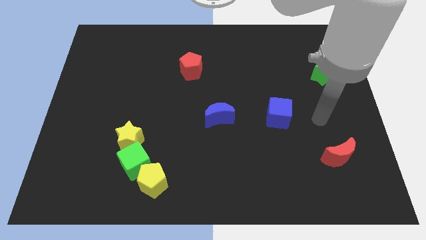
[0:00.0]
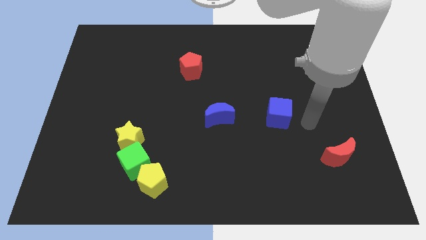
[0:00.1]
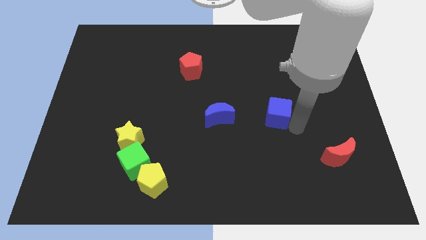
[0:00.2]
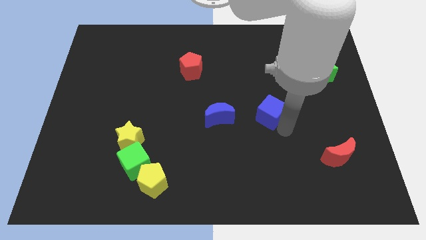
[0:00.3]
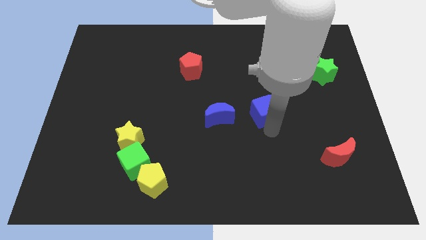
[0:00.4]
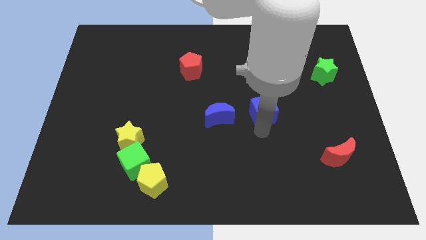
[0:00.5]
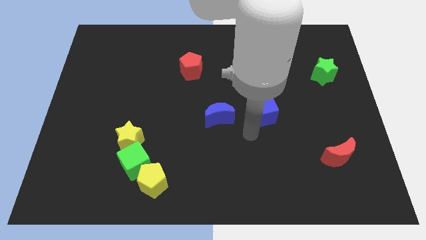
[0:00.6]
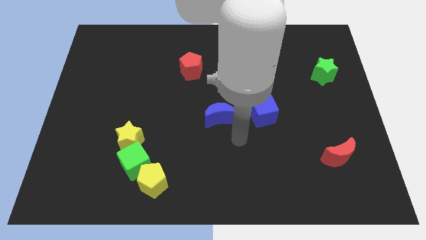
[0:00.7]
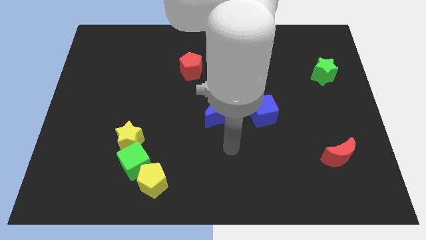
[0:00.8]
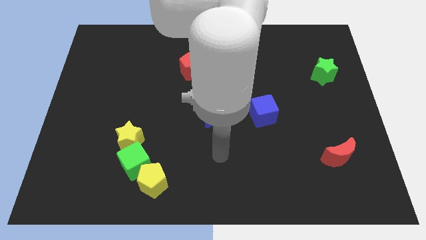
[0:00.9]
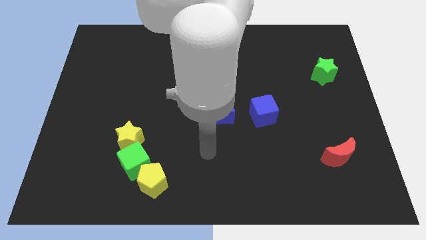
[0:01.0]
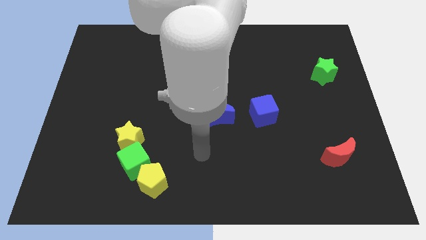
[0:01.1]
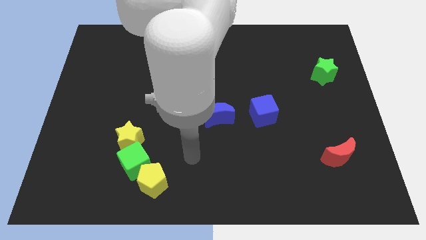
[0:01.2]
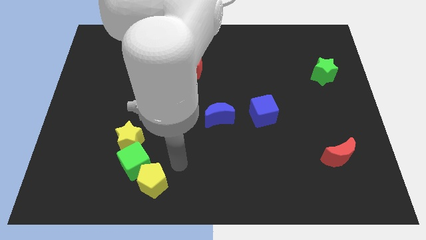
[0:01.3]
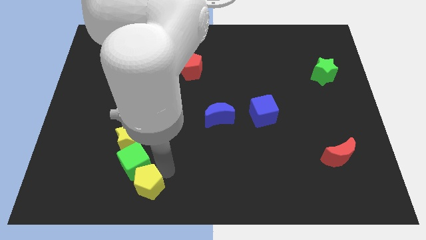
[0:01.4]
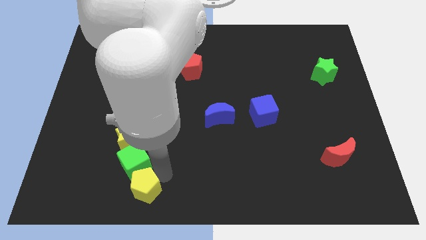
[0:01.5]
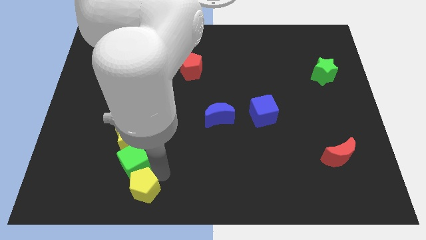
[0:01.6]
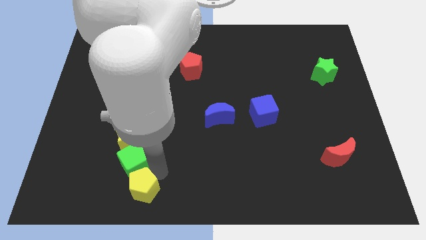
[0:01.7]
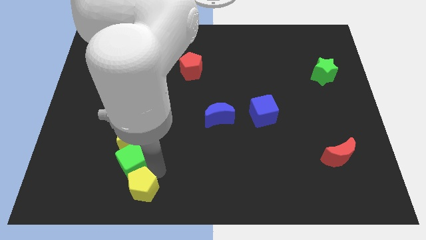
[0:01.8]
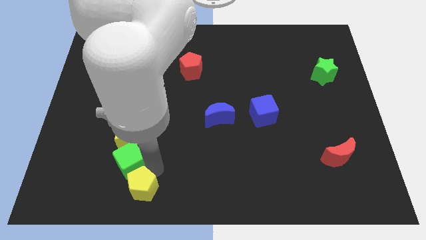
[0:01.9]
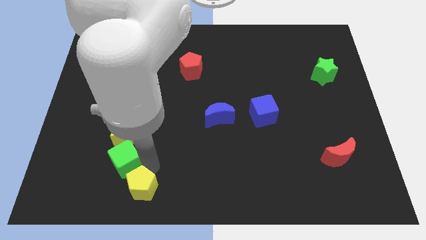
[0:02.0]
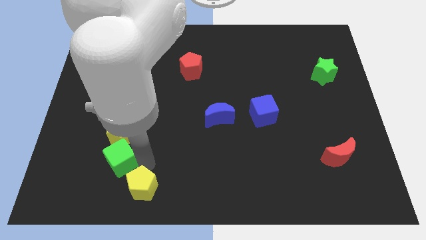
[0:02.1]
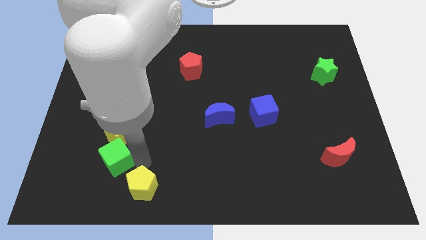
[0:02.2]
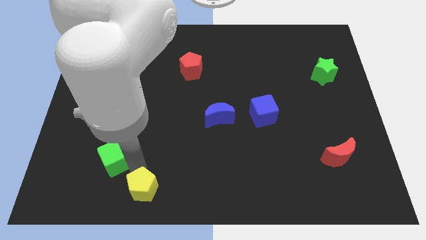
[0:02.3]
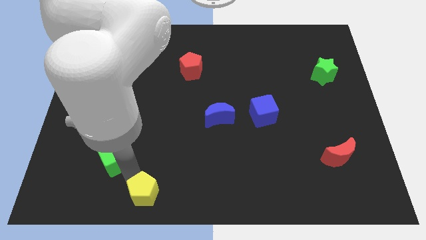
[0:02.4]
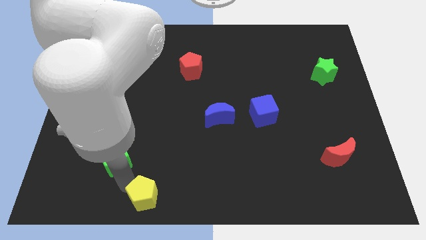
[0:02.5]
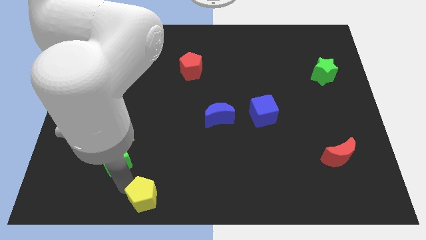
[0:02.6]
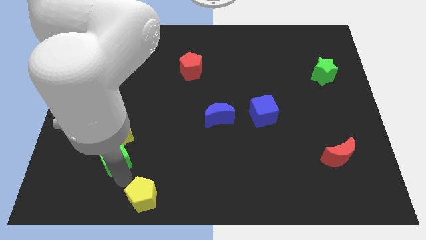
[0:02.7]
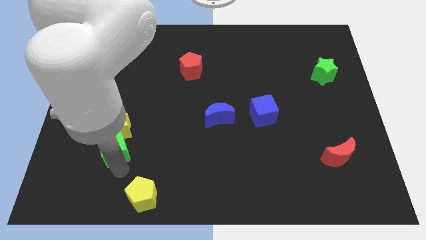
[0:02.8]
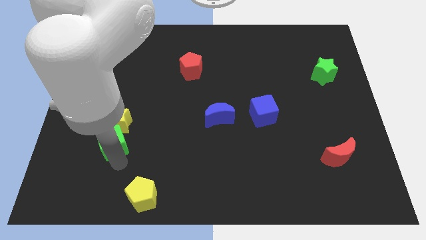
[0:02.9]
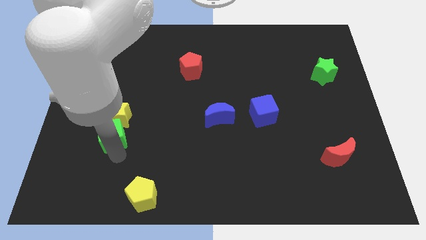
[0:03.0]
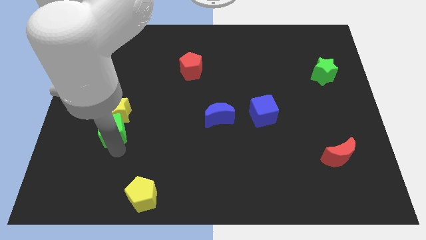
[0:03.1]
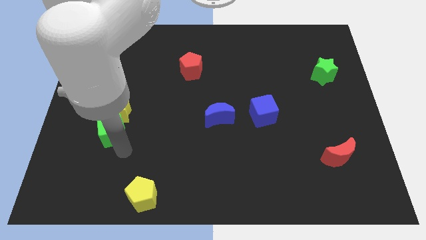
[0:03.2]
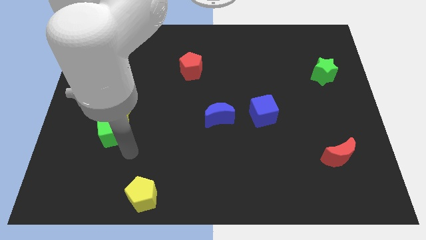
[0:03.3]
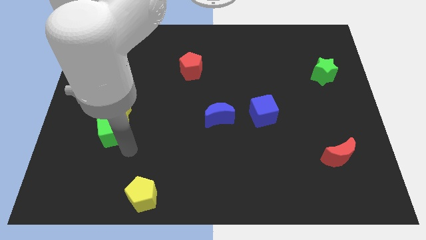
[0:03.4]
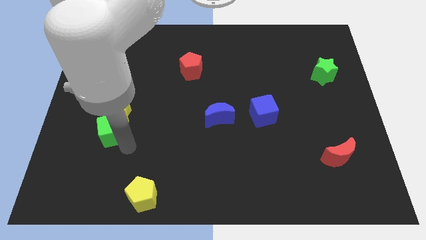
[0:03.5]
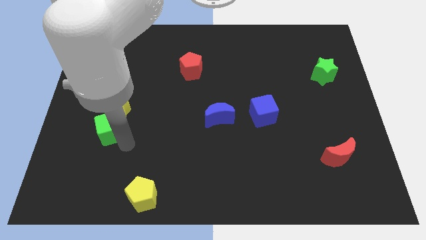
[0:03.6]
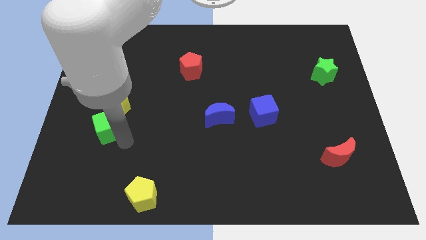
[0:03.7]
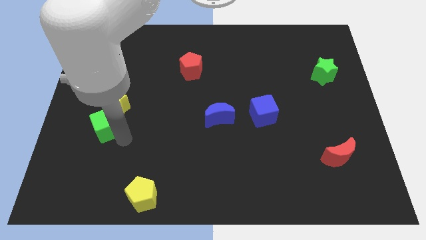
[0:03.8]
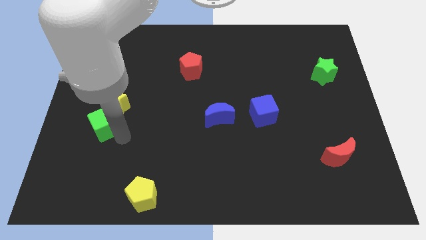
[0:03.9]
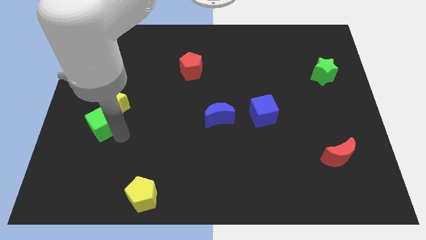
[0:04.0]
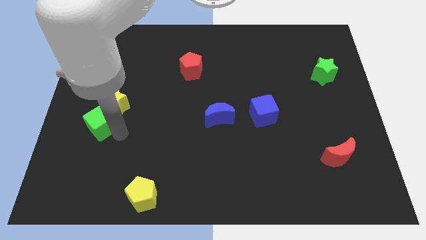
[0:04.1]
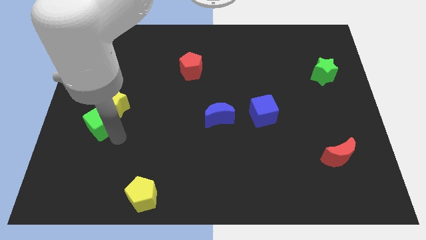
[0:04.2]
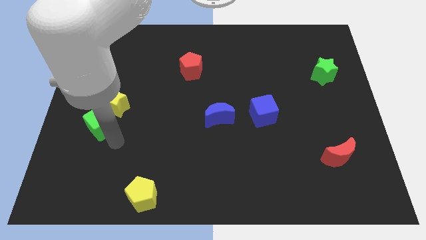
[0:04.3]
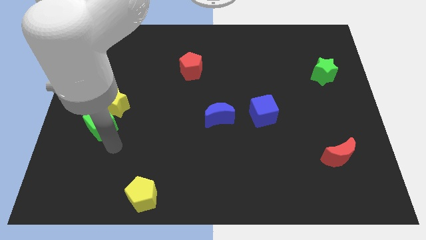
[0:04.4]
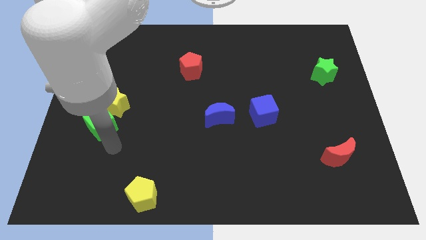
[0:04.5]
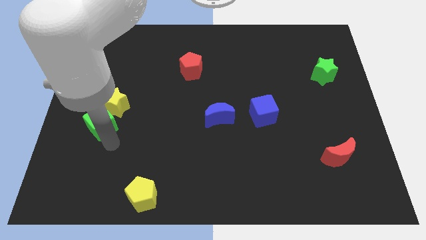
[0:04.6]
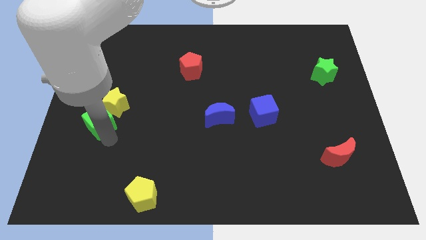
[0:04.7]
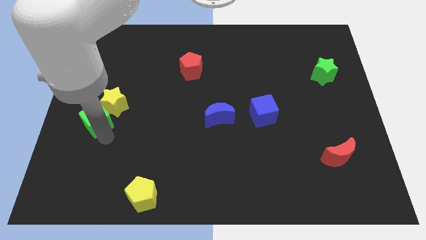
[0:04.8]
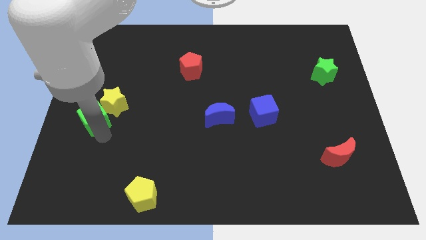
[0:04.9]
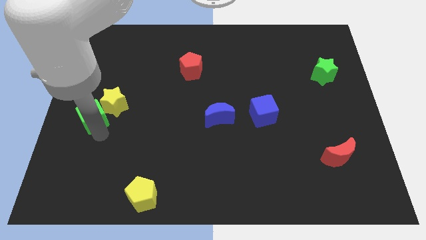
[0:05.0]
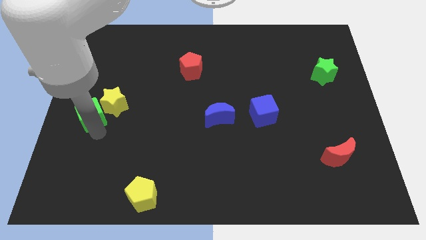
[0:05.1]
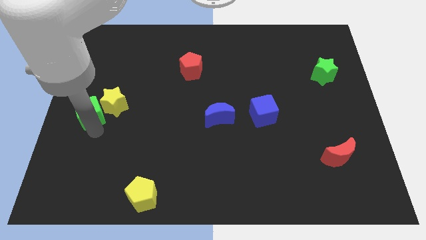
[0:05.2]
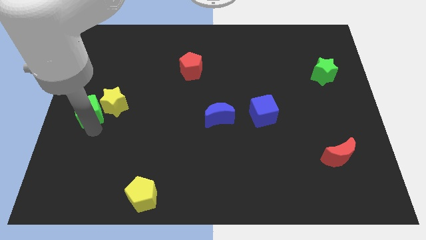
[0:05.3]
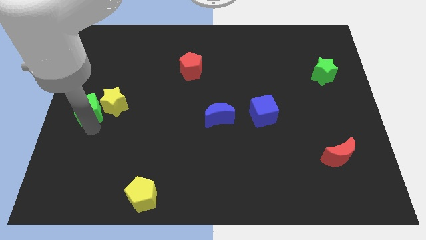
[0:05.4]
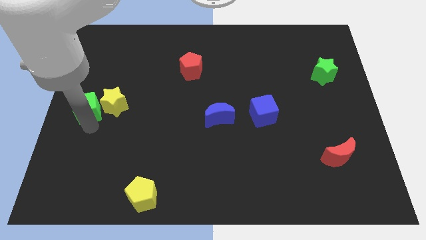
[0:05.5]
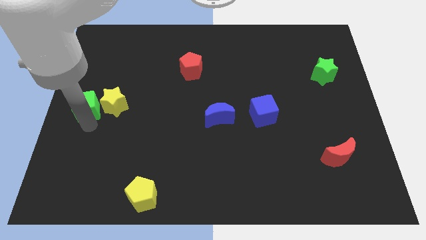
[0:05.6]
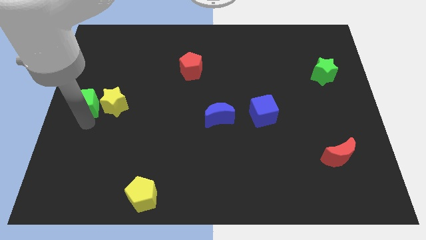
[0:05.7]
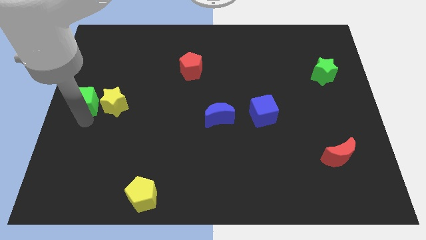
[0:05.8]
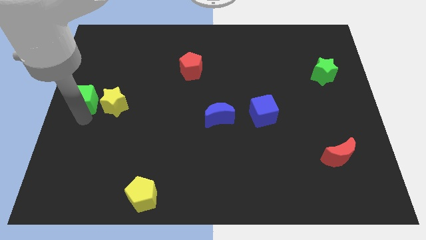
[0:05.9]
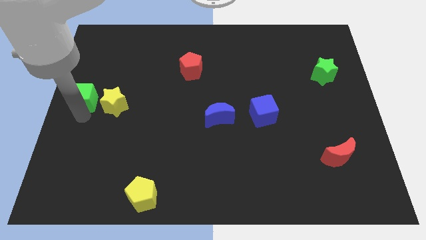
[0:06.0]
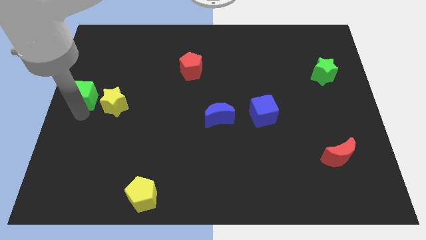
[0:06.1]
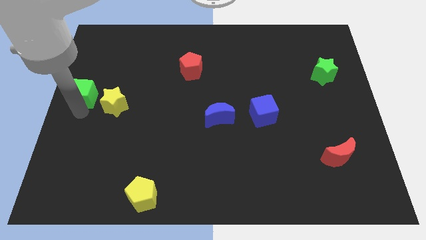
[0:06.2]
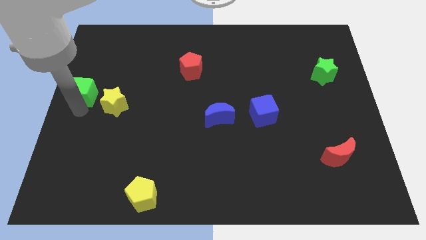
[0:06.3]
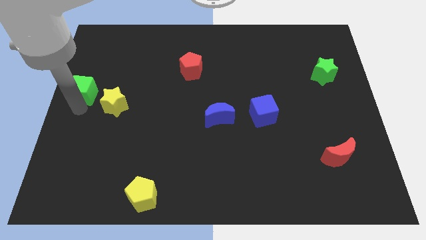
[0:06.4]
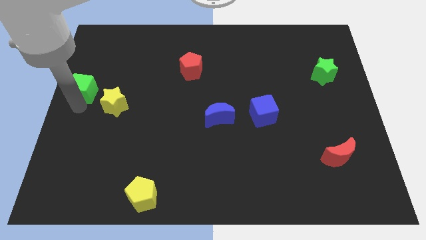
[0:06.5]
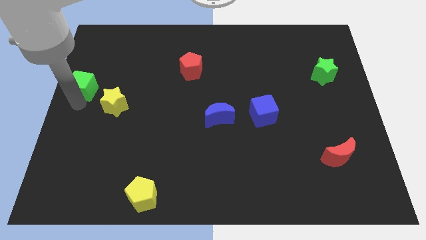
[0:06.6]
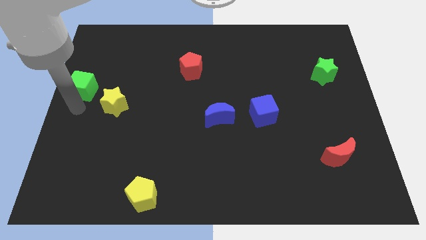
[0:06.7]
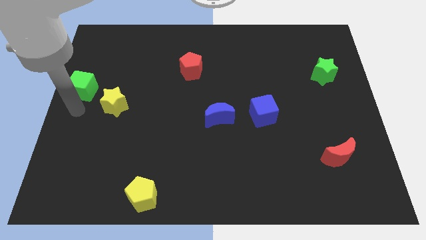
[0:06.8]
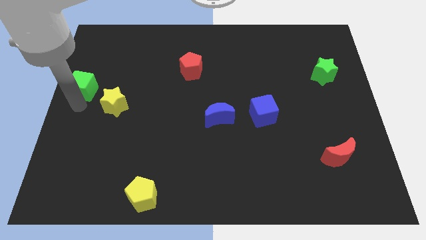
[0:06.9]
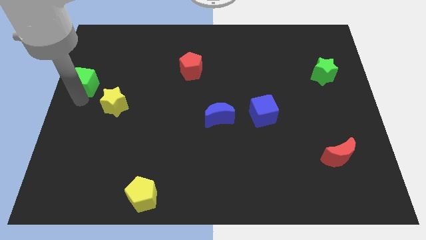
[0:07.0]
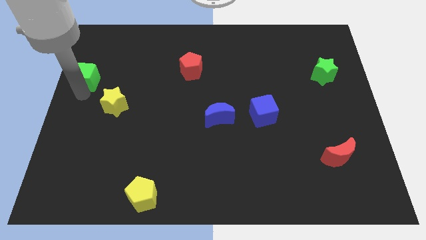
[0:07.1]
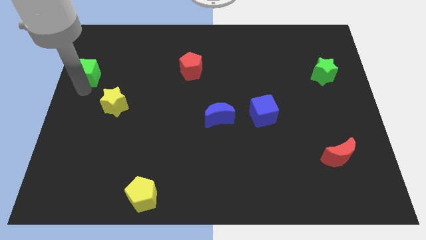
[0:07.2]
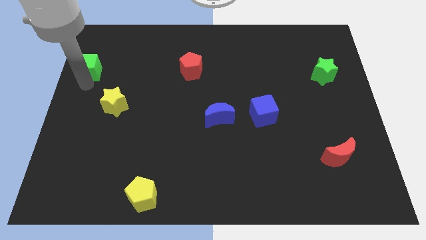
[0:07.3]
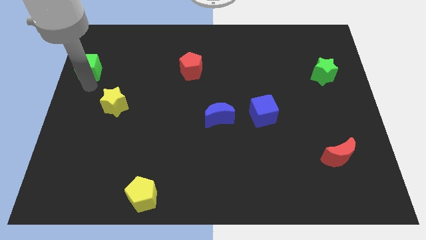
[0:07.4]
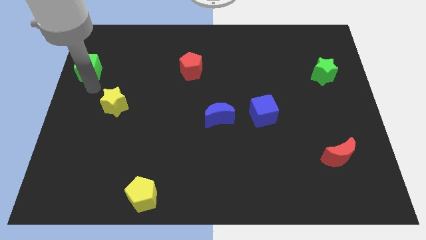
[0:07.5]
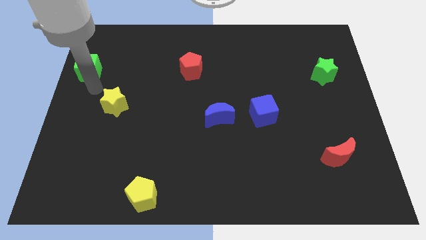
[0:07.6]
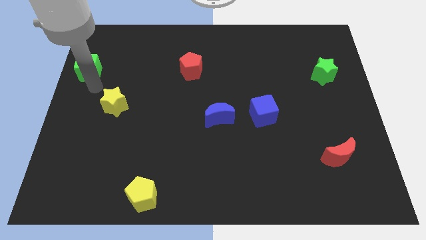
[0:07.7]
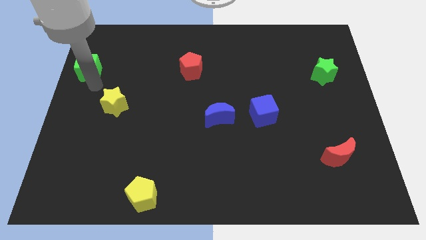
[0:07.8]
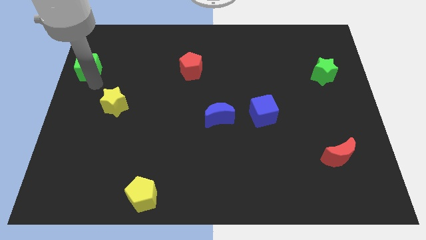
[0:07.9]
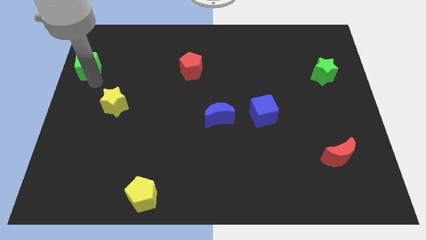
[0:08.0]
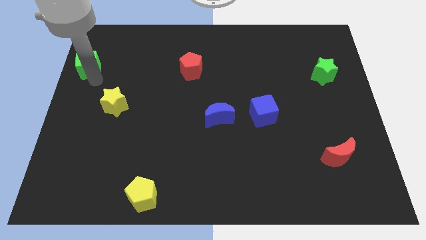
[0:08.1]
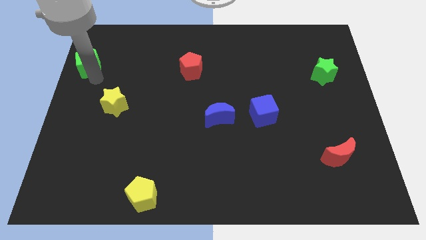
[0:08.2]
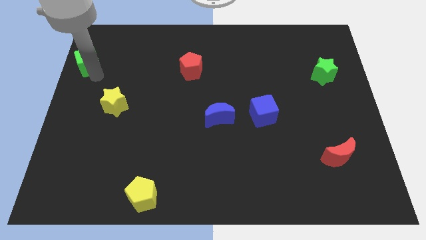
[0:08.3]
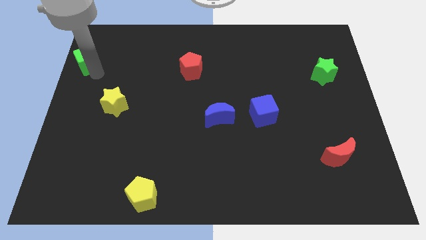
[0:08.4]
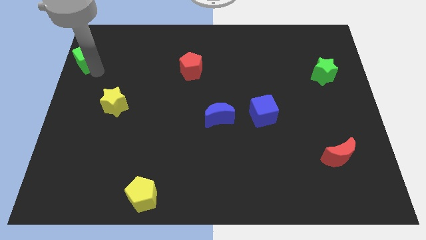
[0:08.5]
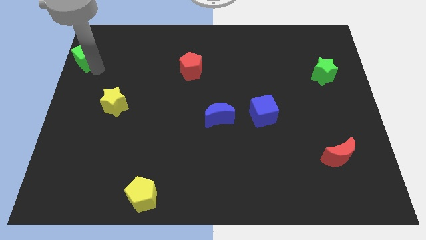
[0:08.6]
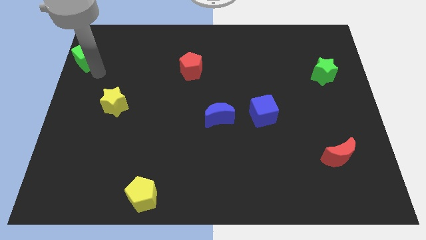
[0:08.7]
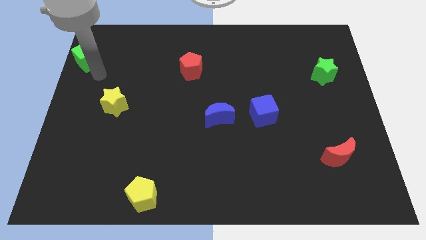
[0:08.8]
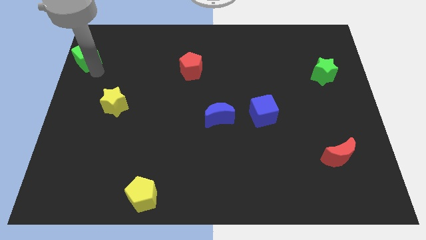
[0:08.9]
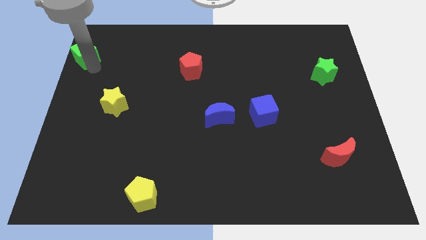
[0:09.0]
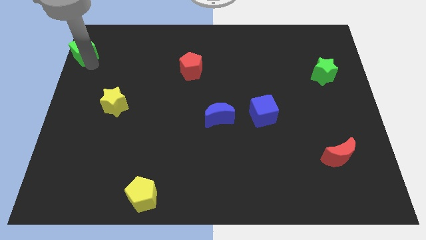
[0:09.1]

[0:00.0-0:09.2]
put the green cube to the top left of the board
